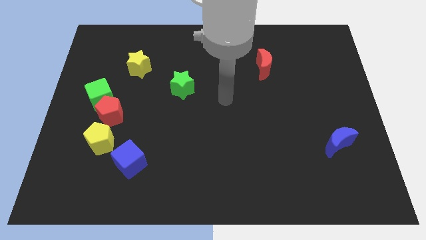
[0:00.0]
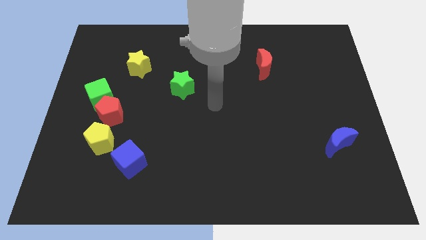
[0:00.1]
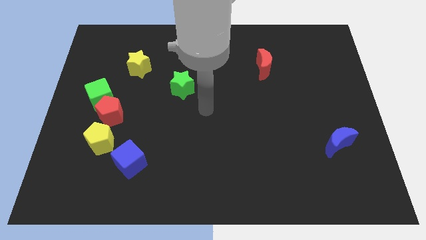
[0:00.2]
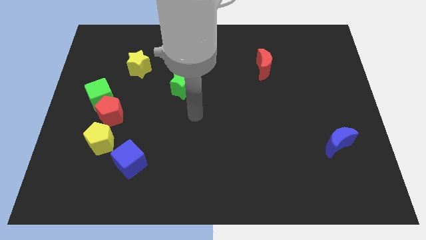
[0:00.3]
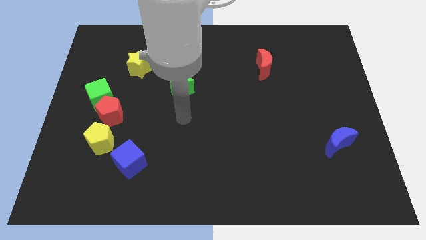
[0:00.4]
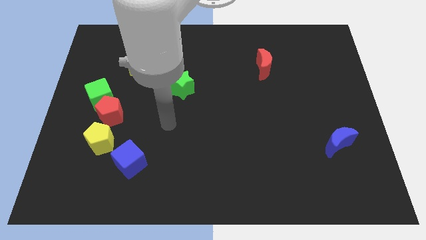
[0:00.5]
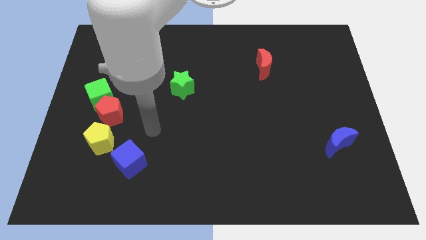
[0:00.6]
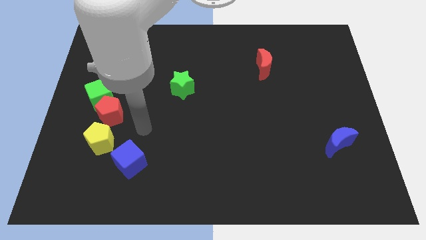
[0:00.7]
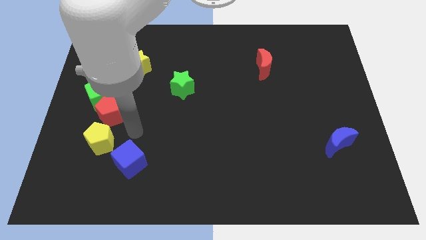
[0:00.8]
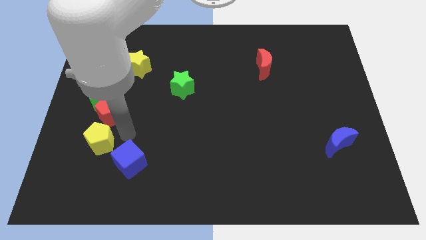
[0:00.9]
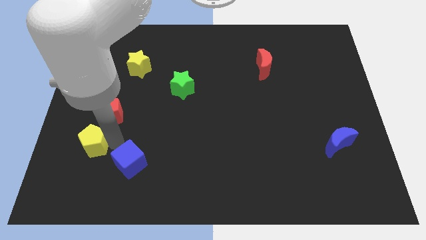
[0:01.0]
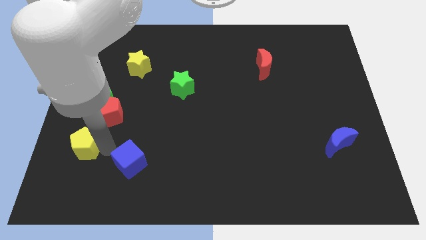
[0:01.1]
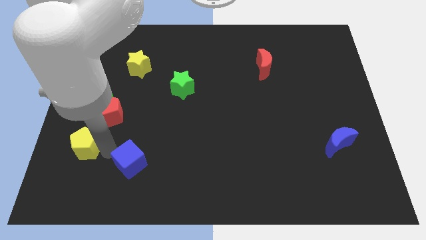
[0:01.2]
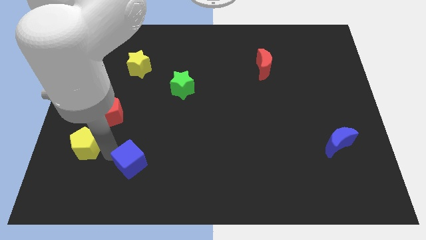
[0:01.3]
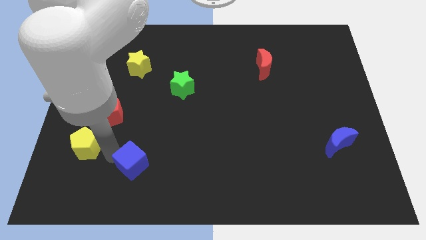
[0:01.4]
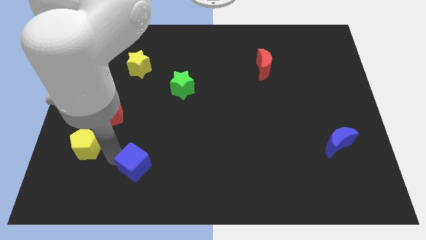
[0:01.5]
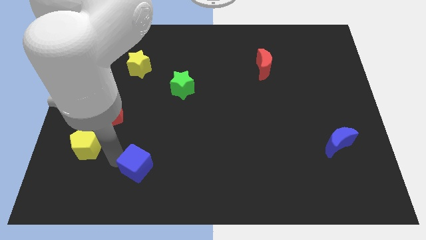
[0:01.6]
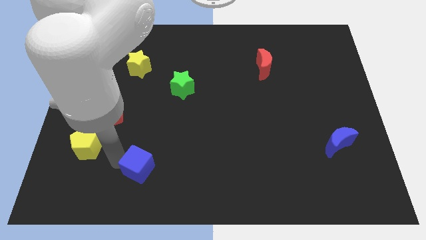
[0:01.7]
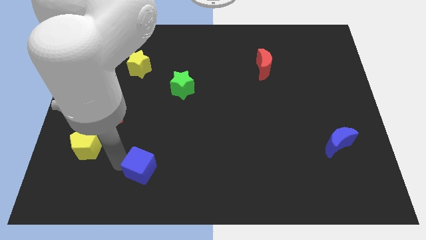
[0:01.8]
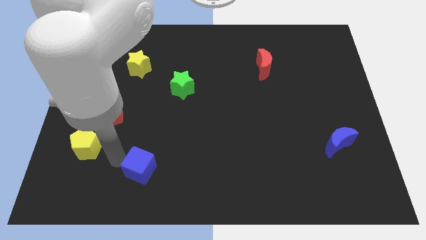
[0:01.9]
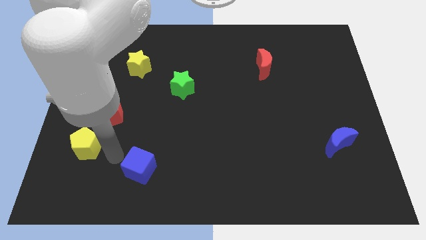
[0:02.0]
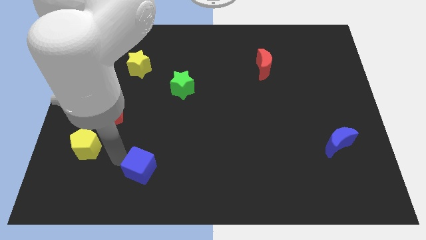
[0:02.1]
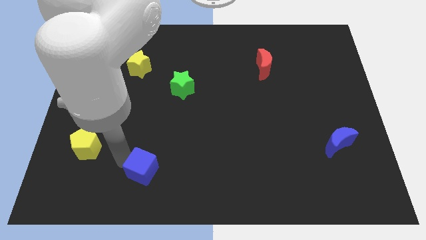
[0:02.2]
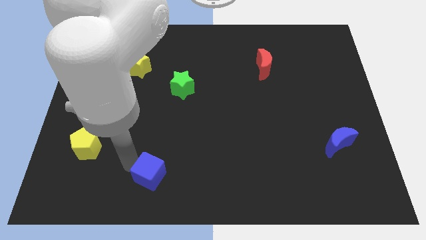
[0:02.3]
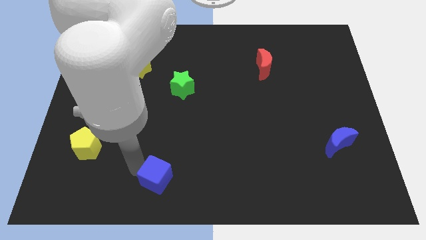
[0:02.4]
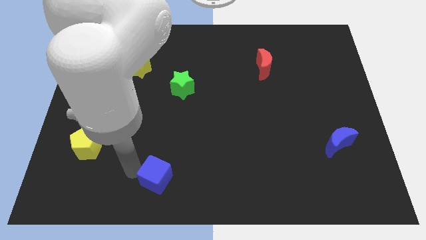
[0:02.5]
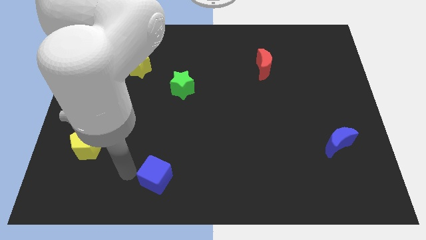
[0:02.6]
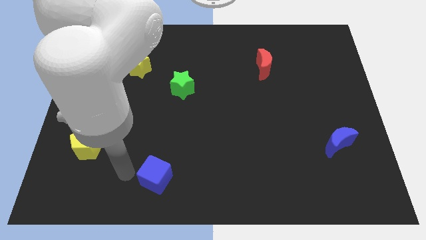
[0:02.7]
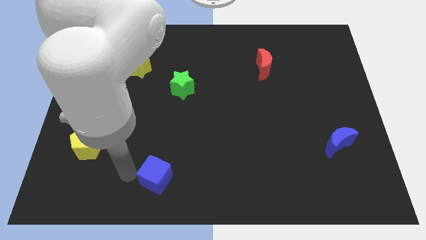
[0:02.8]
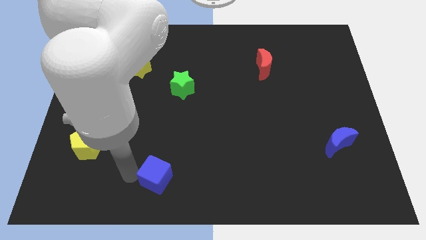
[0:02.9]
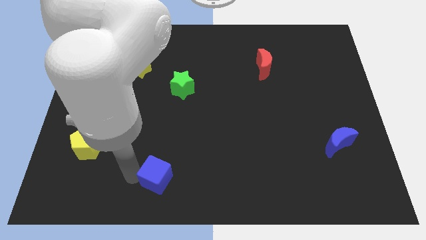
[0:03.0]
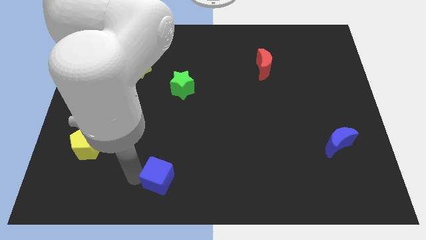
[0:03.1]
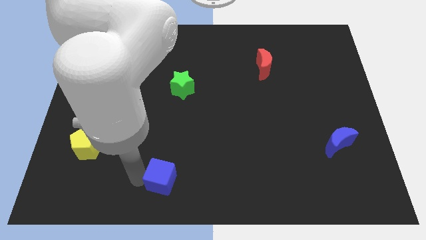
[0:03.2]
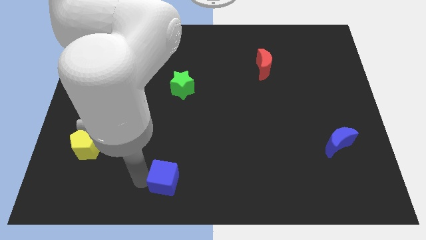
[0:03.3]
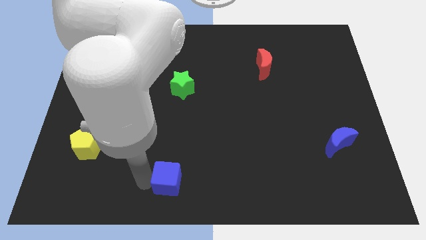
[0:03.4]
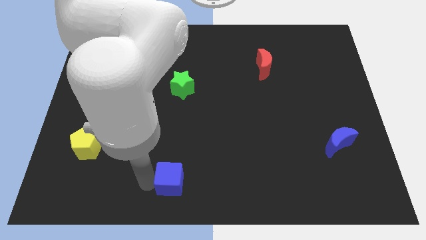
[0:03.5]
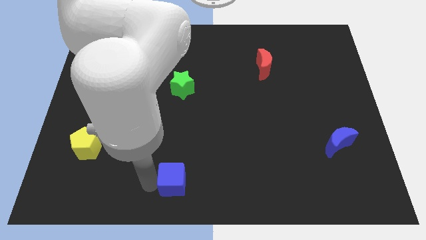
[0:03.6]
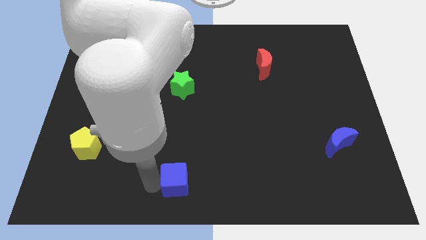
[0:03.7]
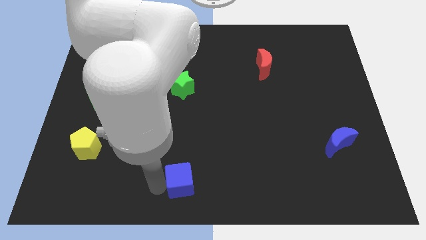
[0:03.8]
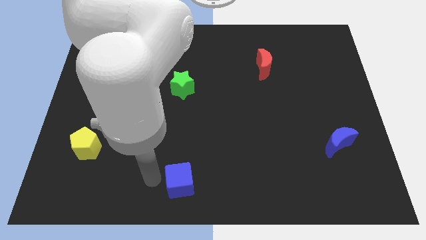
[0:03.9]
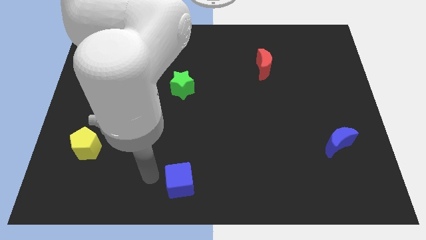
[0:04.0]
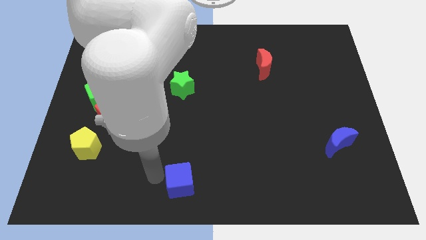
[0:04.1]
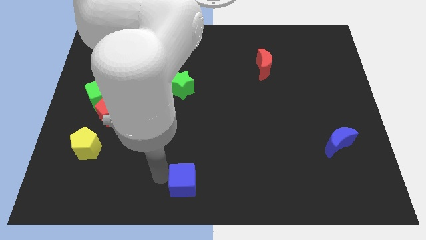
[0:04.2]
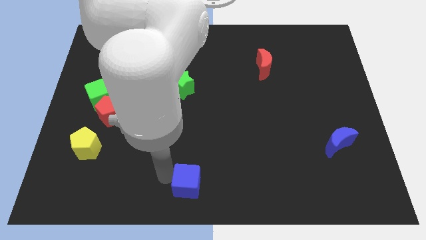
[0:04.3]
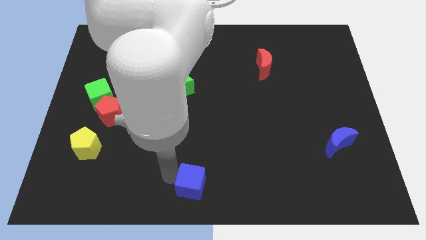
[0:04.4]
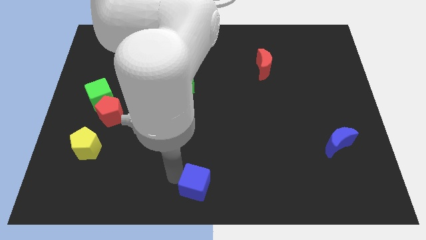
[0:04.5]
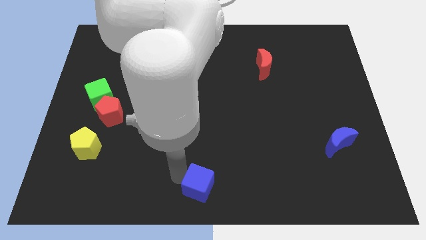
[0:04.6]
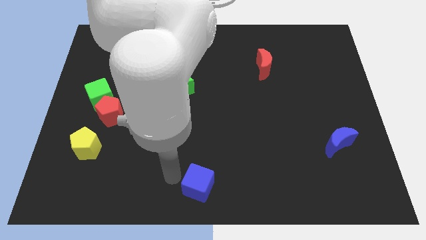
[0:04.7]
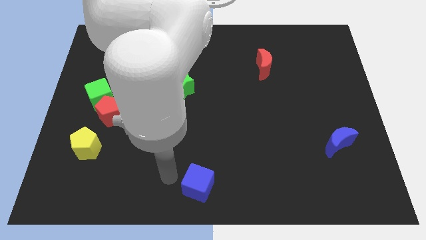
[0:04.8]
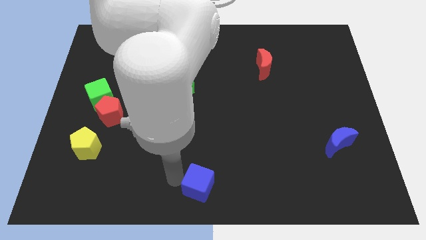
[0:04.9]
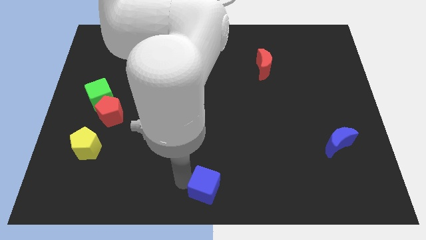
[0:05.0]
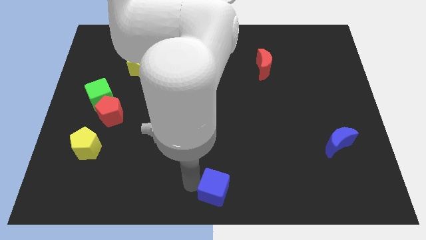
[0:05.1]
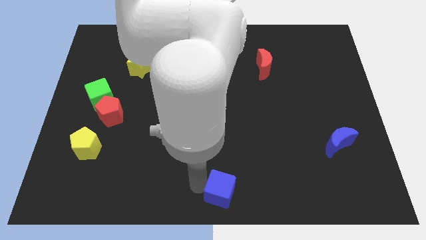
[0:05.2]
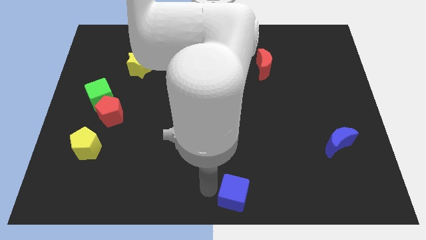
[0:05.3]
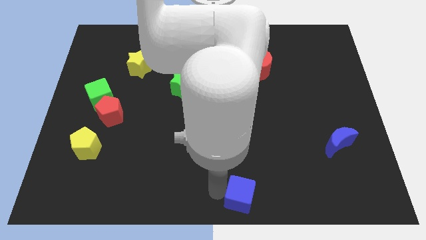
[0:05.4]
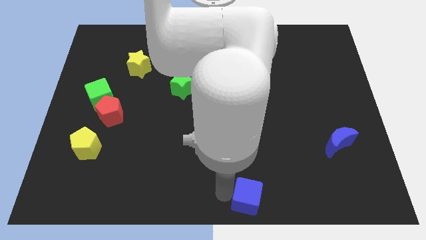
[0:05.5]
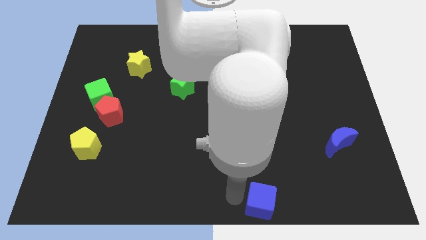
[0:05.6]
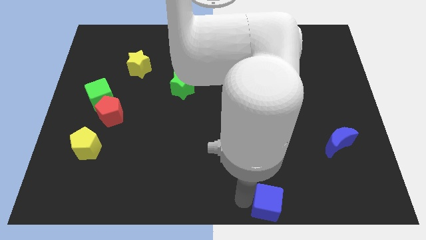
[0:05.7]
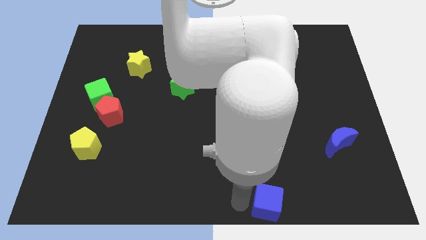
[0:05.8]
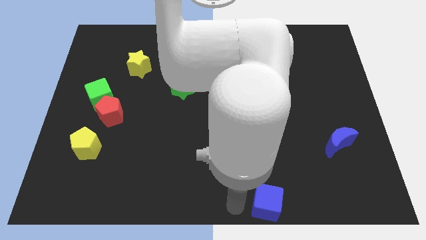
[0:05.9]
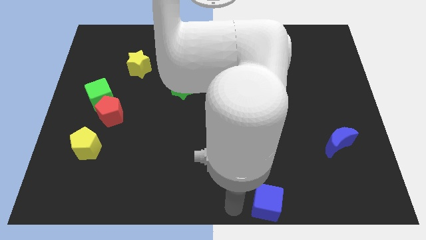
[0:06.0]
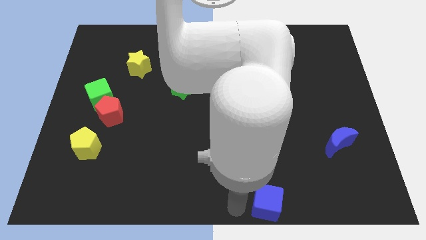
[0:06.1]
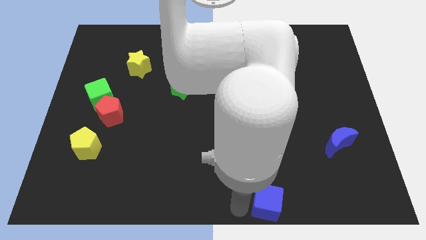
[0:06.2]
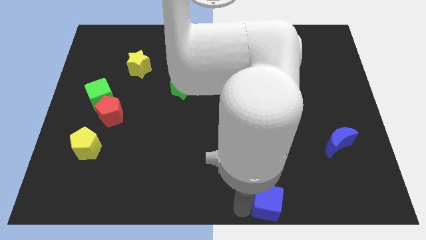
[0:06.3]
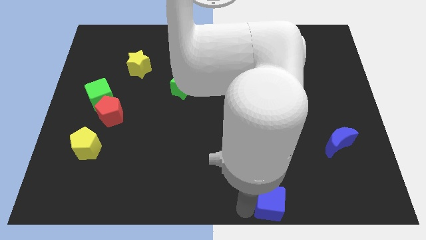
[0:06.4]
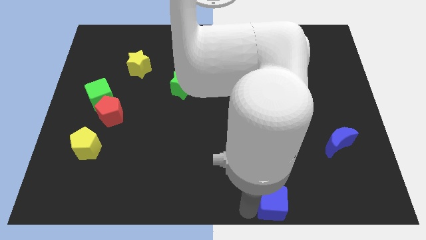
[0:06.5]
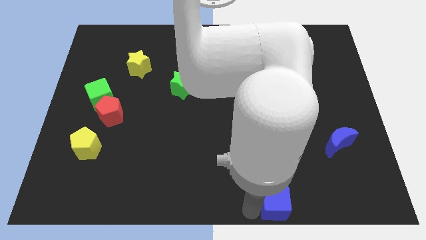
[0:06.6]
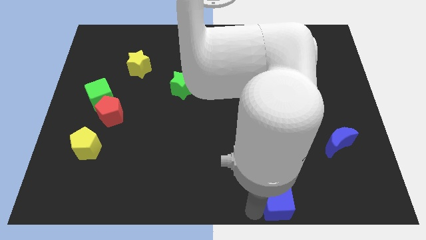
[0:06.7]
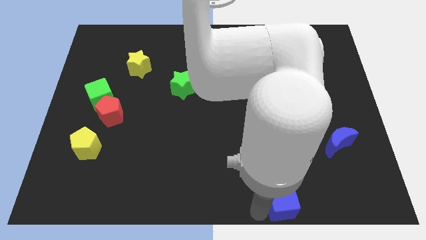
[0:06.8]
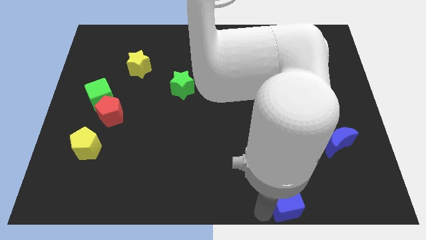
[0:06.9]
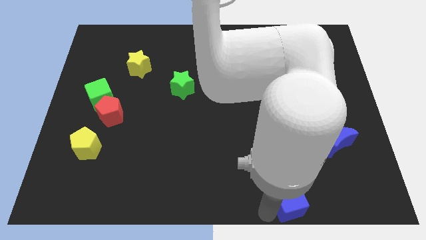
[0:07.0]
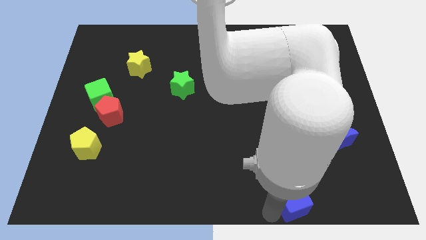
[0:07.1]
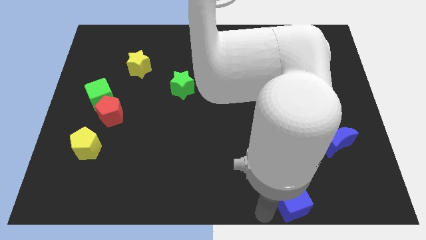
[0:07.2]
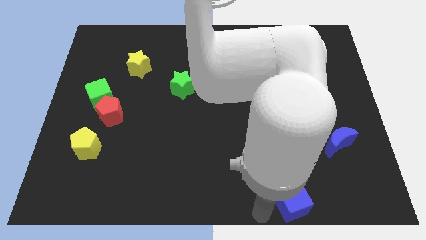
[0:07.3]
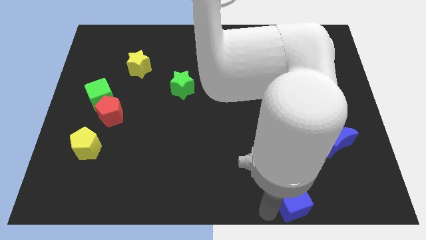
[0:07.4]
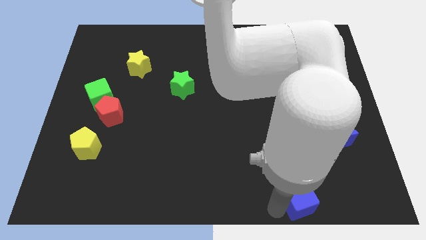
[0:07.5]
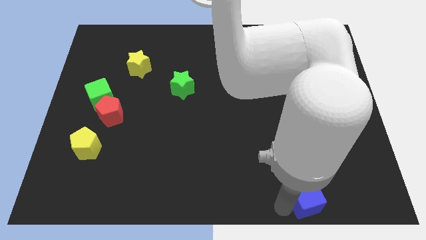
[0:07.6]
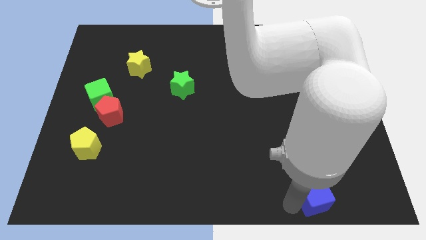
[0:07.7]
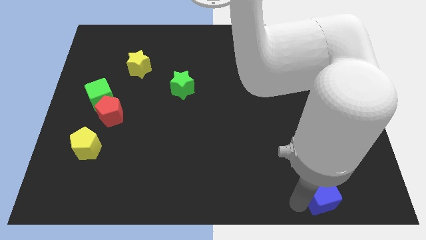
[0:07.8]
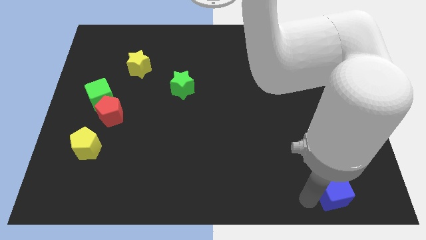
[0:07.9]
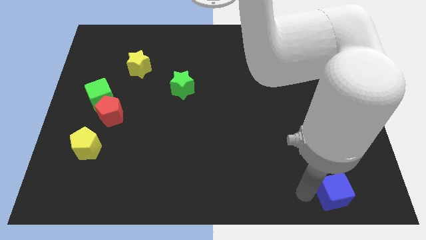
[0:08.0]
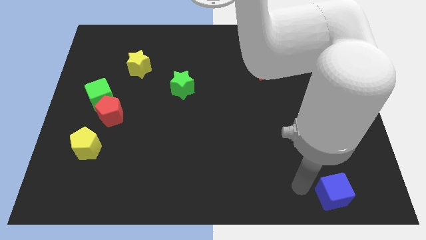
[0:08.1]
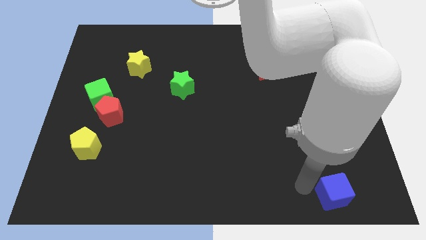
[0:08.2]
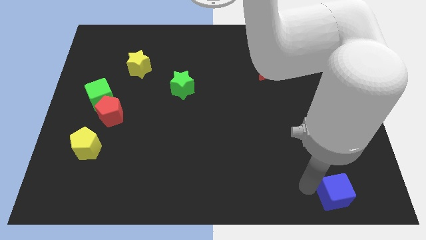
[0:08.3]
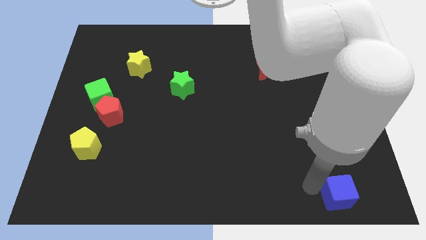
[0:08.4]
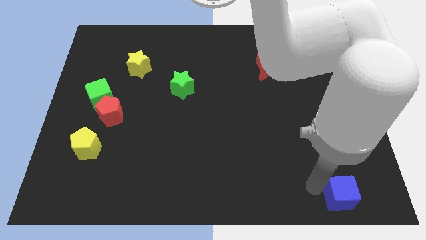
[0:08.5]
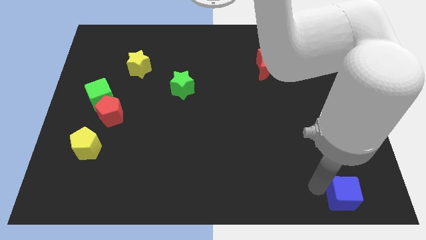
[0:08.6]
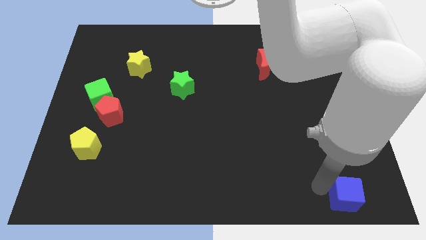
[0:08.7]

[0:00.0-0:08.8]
put the blue cube to the bottom right
